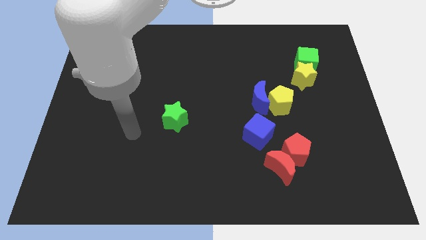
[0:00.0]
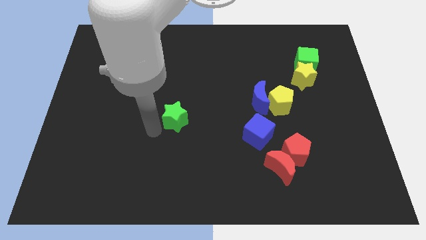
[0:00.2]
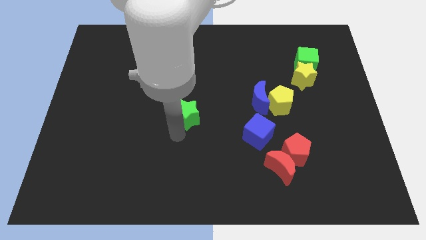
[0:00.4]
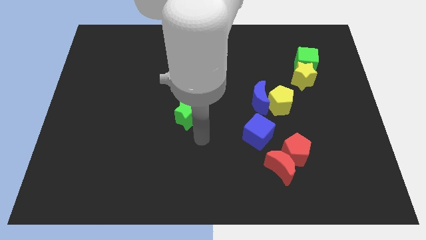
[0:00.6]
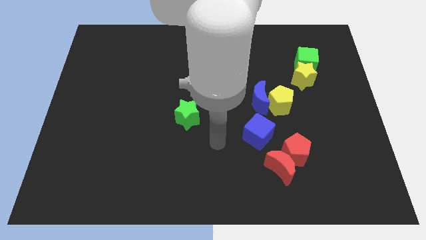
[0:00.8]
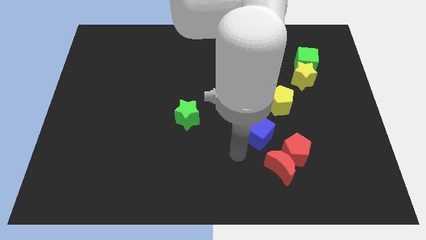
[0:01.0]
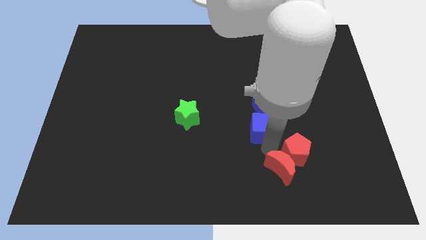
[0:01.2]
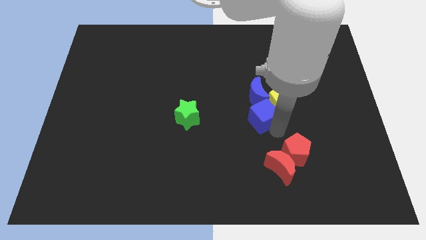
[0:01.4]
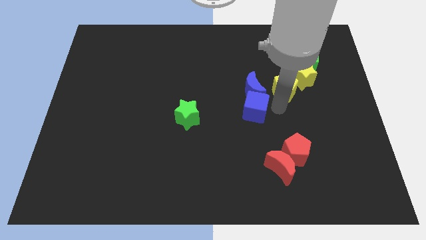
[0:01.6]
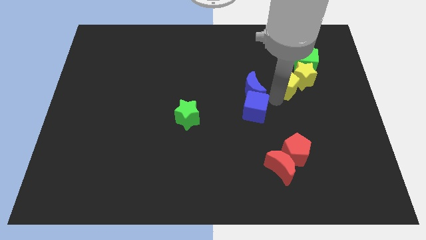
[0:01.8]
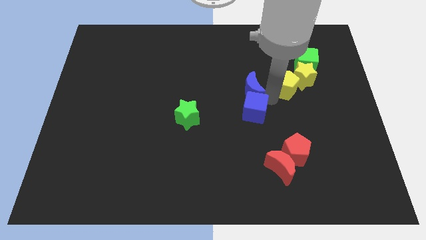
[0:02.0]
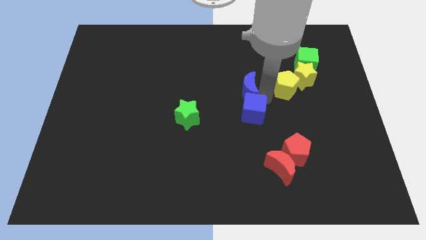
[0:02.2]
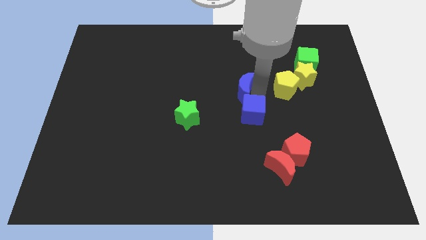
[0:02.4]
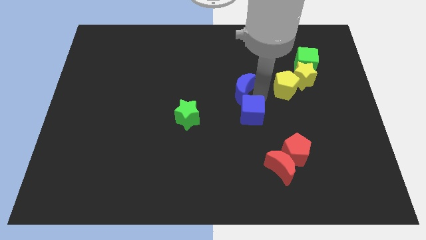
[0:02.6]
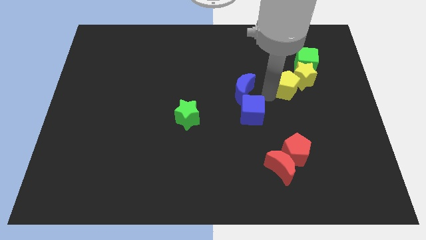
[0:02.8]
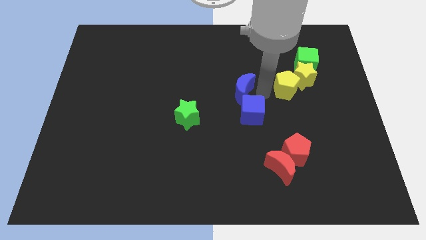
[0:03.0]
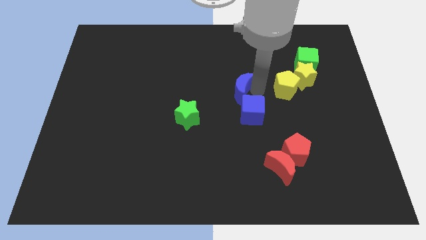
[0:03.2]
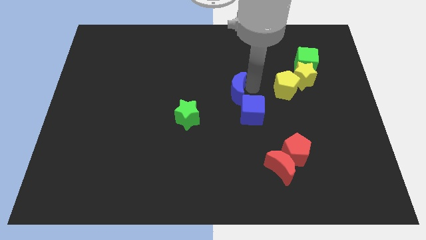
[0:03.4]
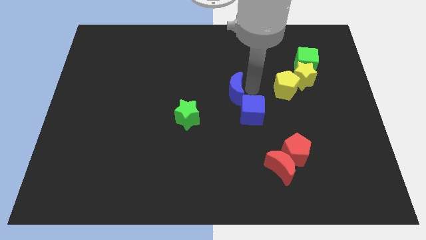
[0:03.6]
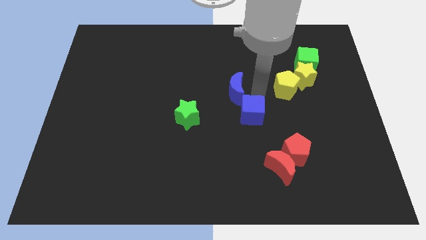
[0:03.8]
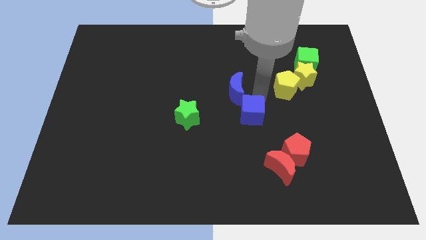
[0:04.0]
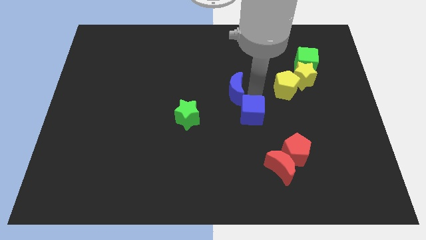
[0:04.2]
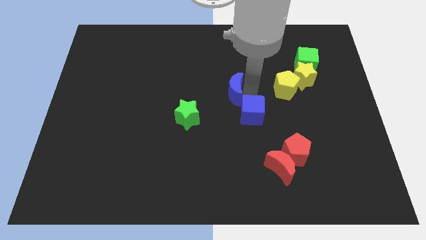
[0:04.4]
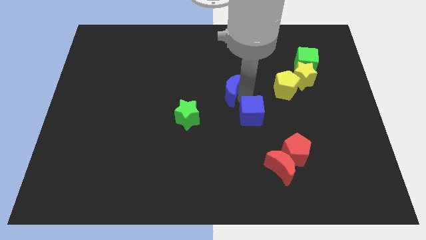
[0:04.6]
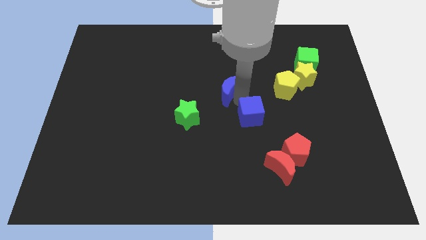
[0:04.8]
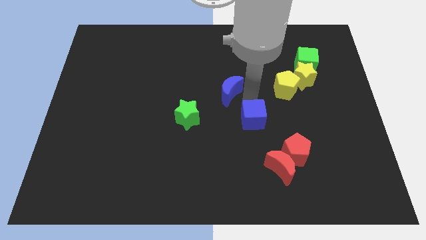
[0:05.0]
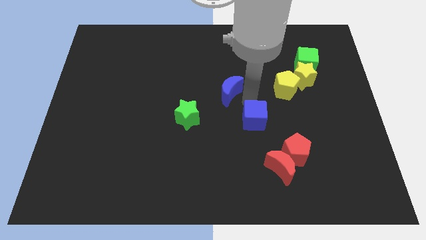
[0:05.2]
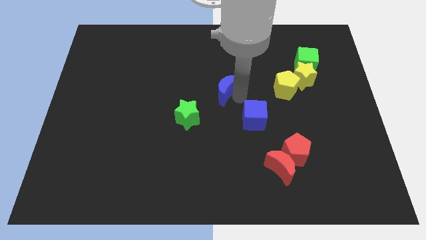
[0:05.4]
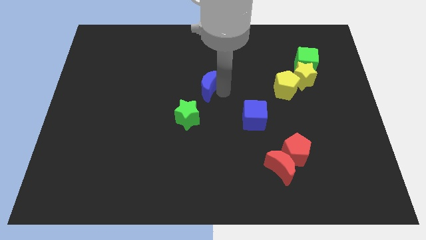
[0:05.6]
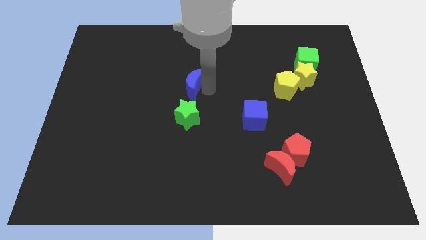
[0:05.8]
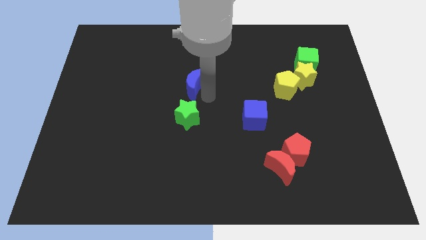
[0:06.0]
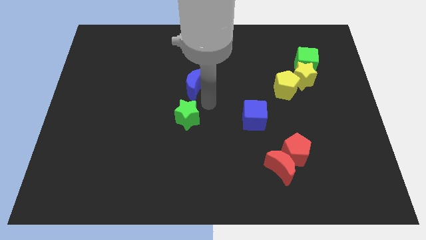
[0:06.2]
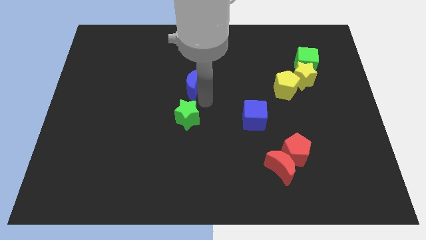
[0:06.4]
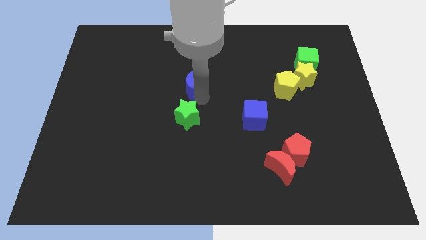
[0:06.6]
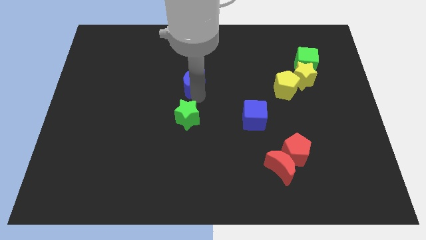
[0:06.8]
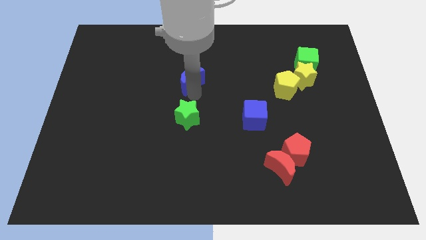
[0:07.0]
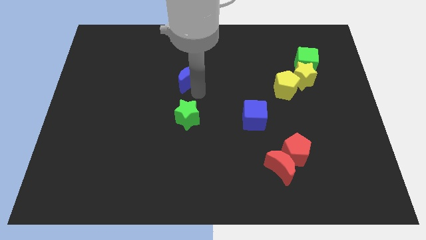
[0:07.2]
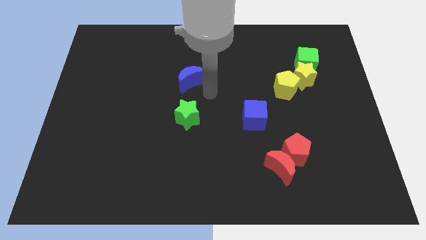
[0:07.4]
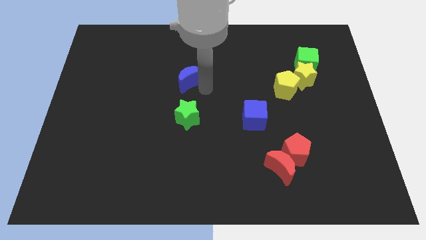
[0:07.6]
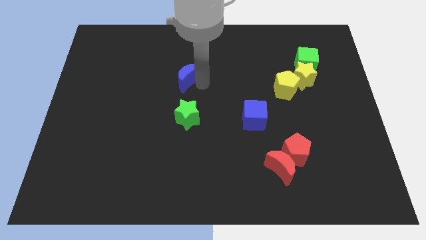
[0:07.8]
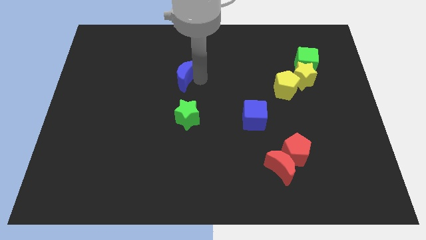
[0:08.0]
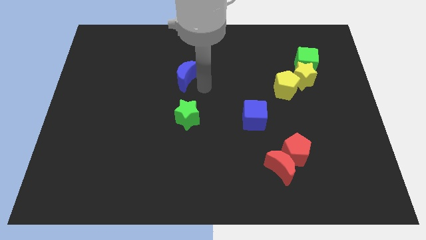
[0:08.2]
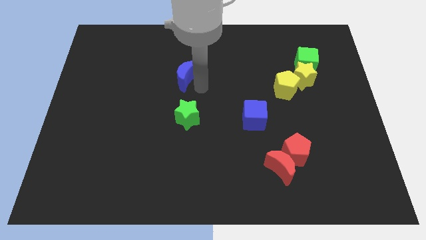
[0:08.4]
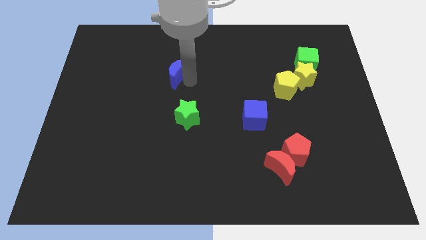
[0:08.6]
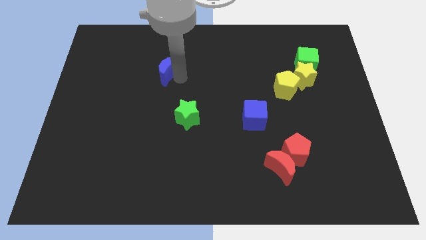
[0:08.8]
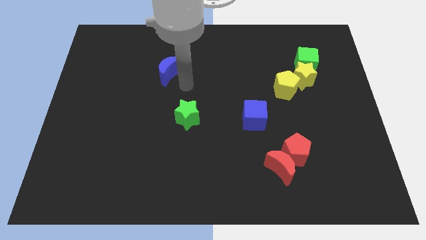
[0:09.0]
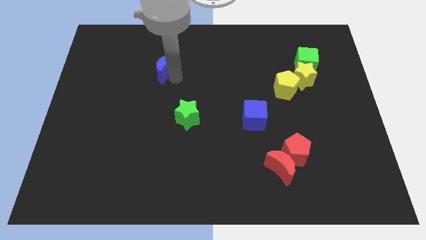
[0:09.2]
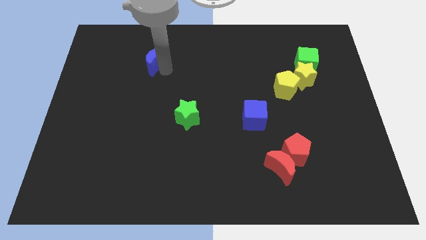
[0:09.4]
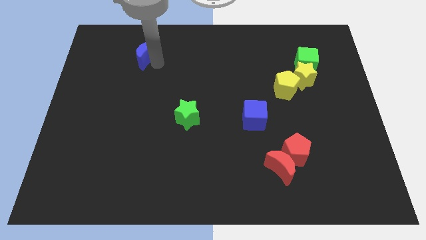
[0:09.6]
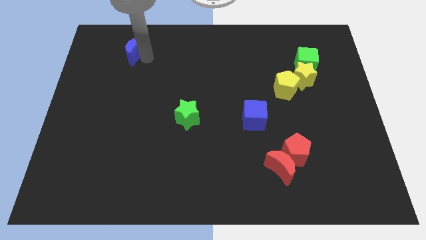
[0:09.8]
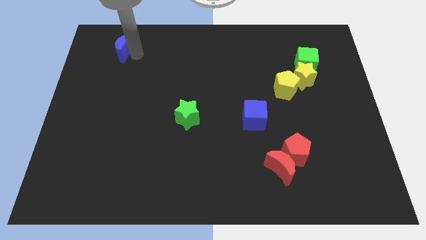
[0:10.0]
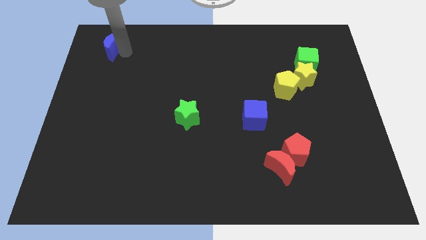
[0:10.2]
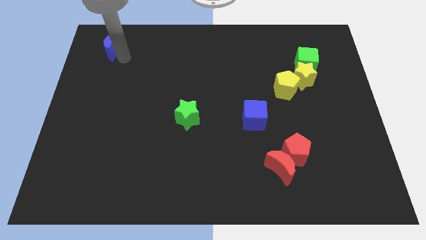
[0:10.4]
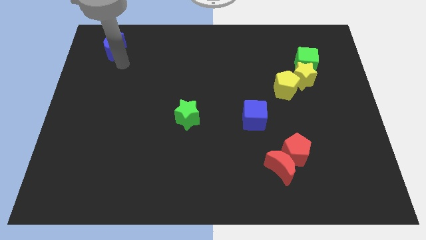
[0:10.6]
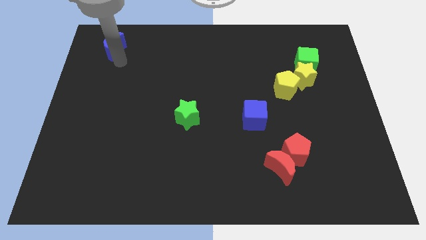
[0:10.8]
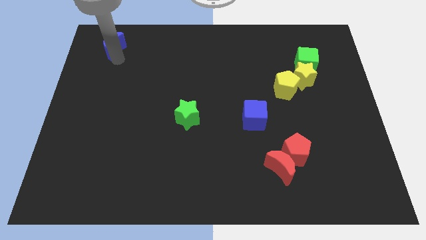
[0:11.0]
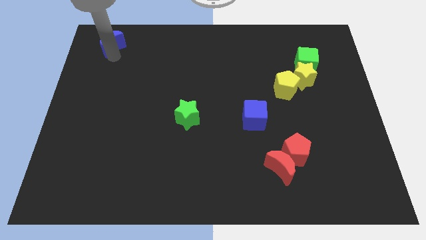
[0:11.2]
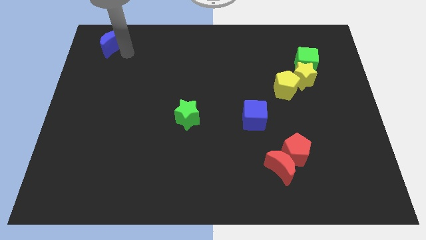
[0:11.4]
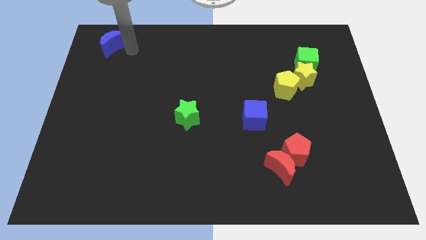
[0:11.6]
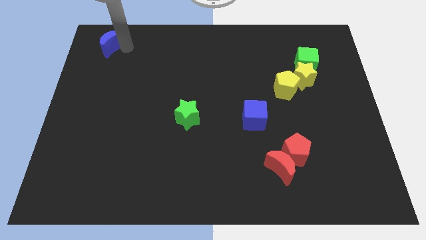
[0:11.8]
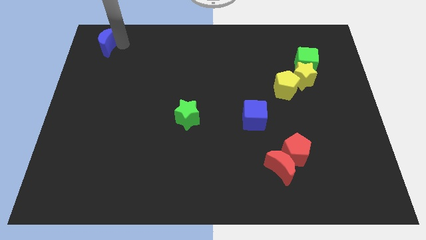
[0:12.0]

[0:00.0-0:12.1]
push the blue moon to the upper left corner

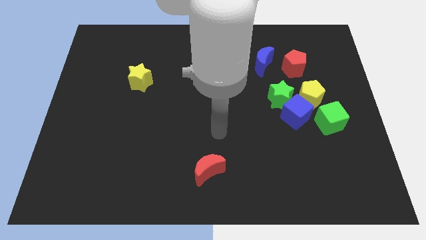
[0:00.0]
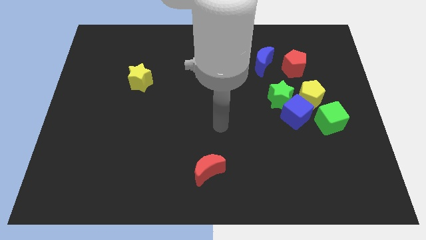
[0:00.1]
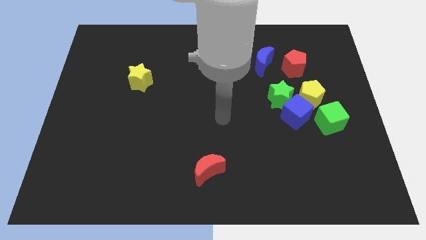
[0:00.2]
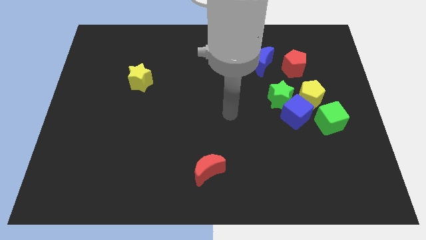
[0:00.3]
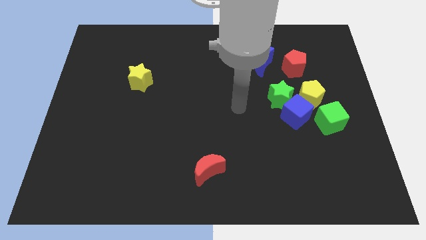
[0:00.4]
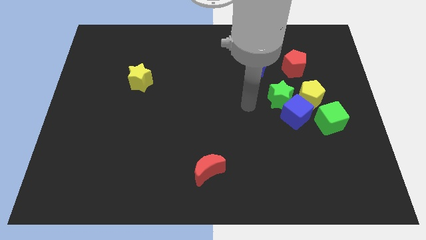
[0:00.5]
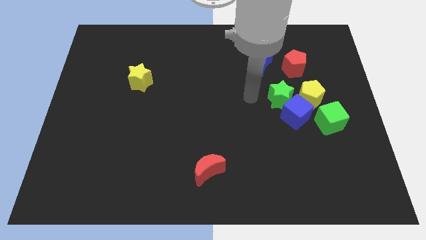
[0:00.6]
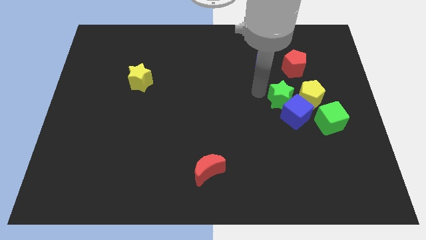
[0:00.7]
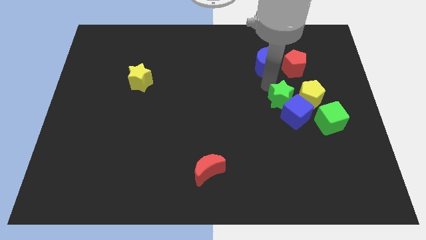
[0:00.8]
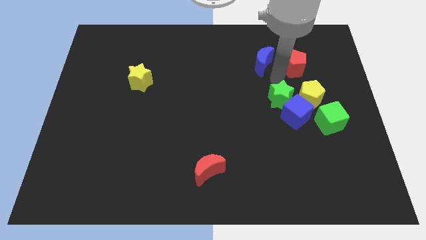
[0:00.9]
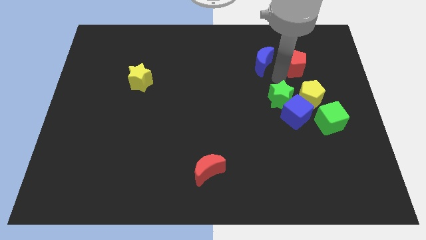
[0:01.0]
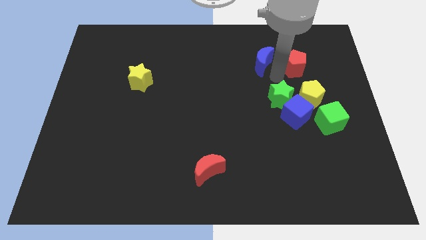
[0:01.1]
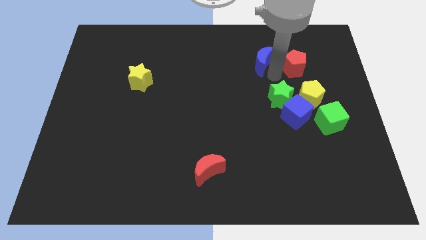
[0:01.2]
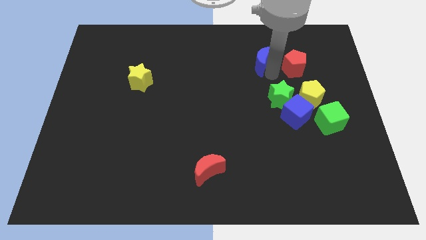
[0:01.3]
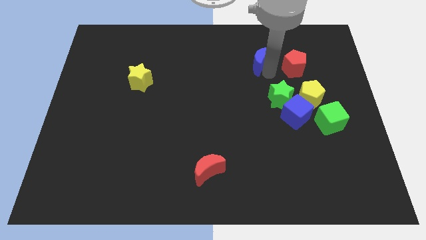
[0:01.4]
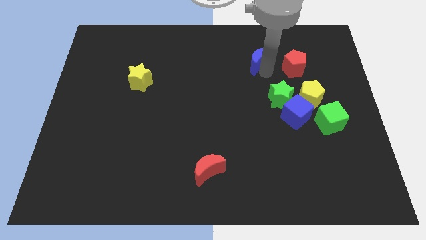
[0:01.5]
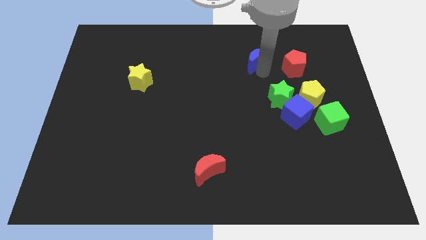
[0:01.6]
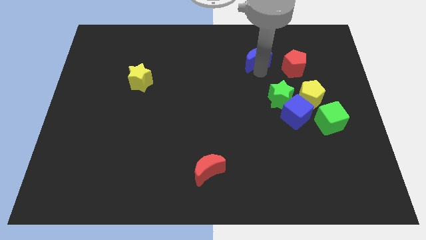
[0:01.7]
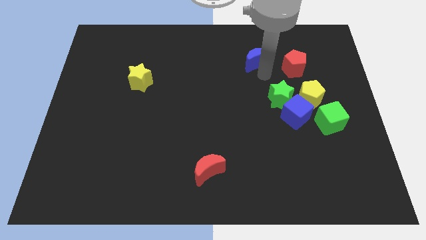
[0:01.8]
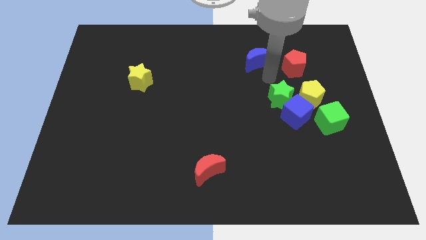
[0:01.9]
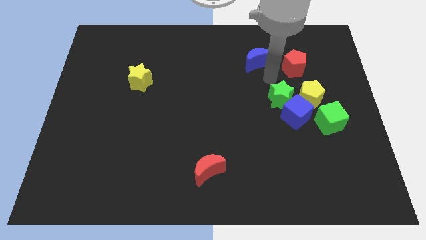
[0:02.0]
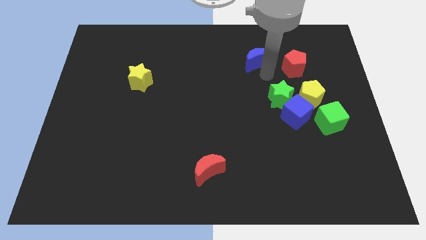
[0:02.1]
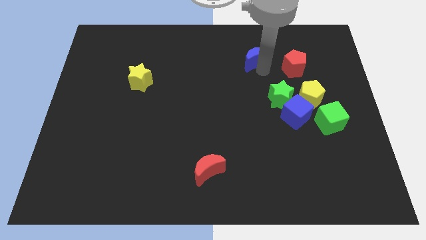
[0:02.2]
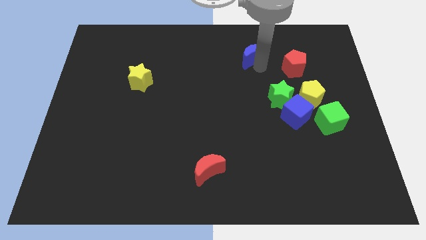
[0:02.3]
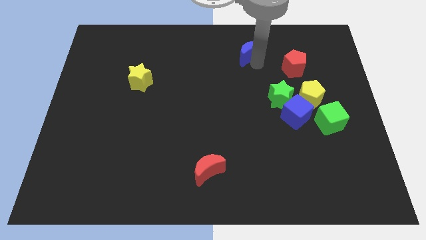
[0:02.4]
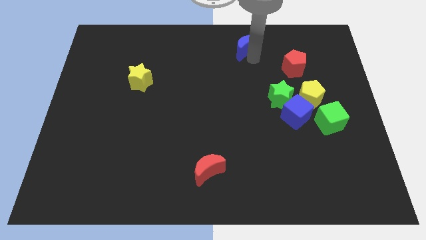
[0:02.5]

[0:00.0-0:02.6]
put the blue moon to the towards your base
